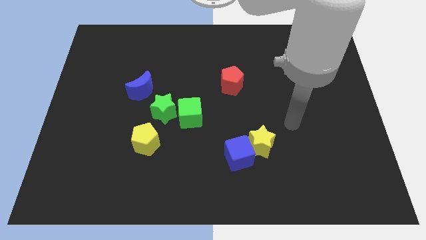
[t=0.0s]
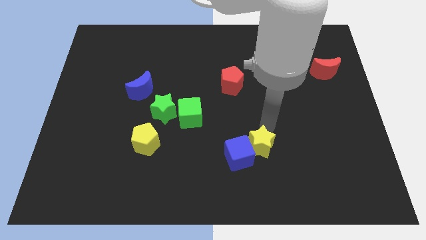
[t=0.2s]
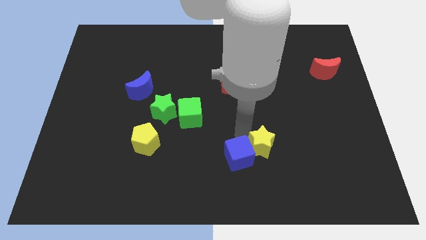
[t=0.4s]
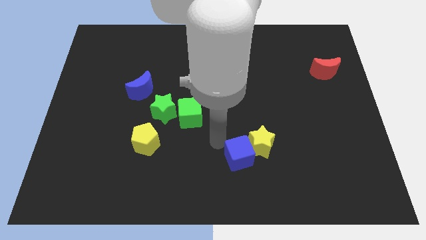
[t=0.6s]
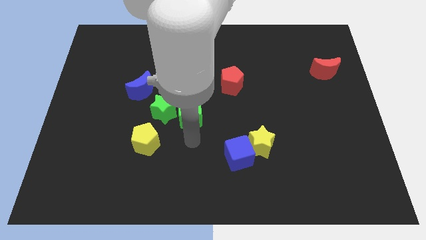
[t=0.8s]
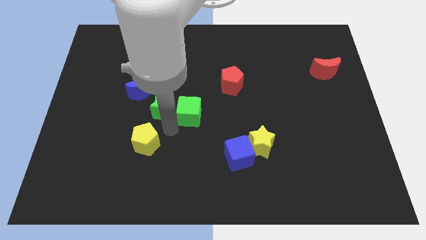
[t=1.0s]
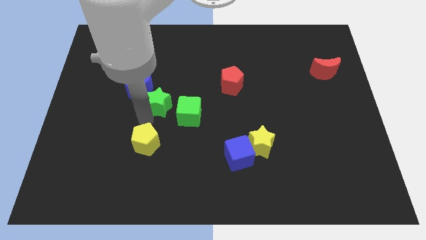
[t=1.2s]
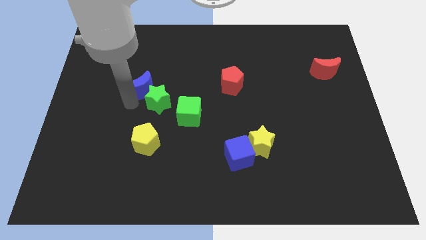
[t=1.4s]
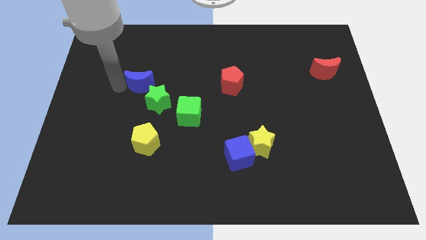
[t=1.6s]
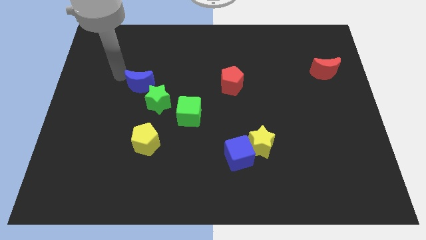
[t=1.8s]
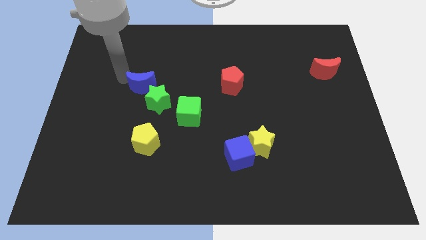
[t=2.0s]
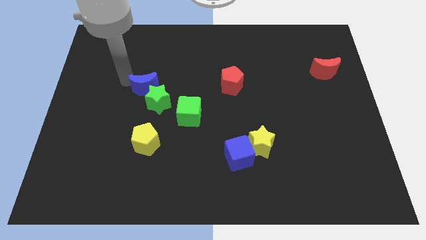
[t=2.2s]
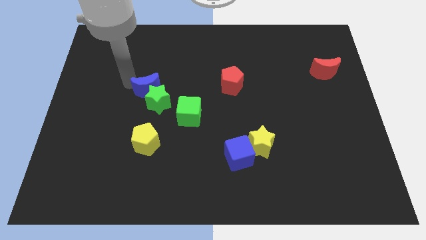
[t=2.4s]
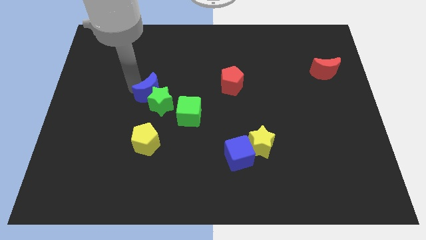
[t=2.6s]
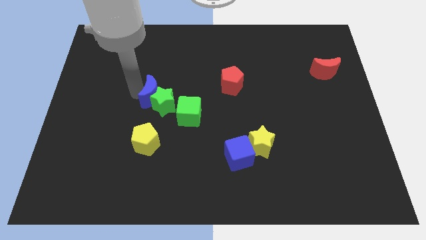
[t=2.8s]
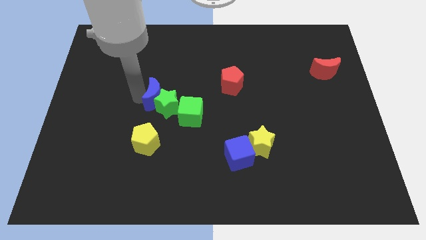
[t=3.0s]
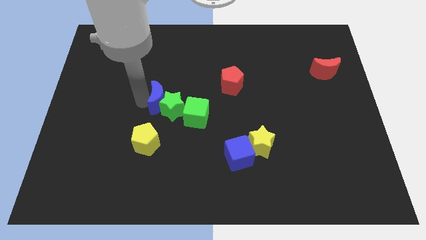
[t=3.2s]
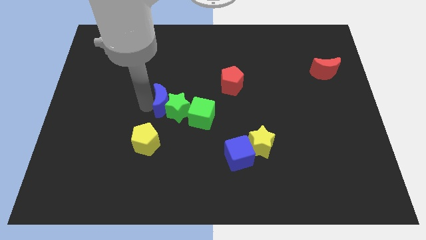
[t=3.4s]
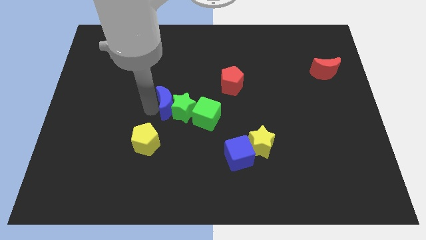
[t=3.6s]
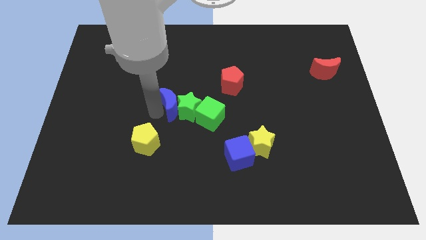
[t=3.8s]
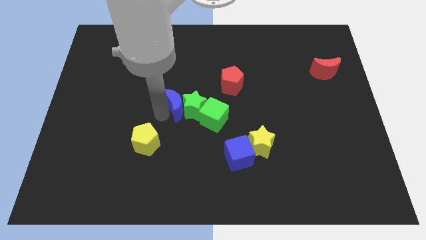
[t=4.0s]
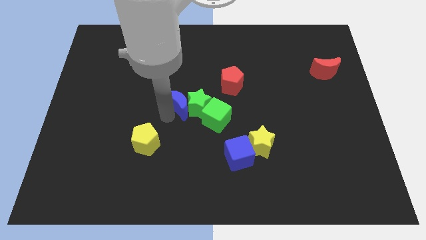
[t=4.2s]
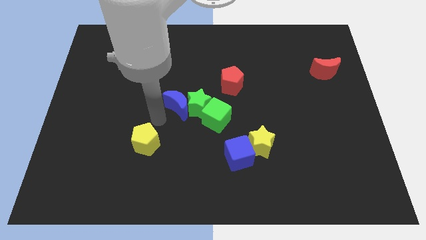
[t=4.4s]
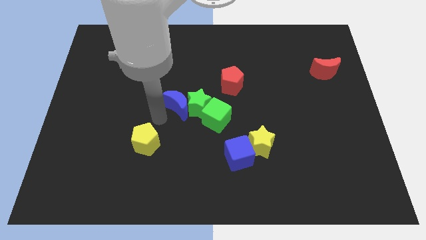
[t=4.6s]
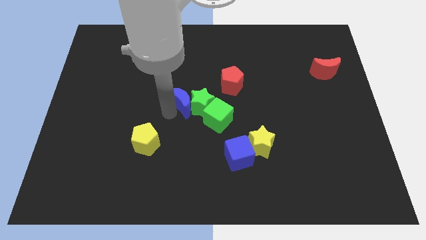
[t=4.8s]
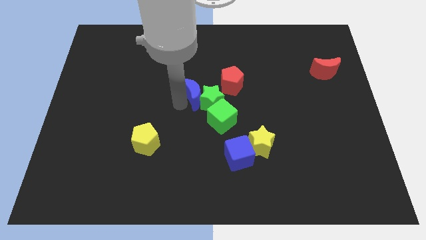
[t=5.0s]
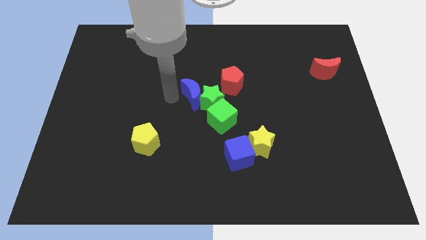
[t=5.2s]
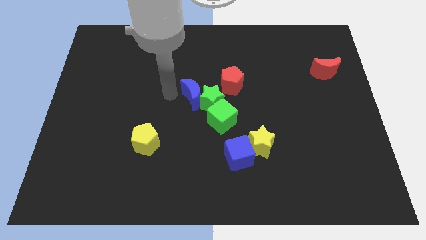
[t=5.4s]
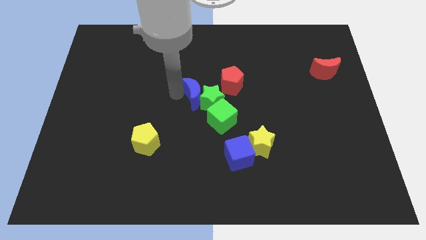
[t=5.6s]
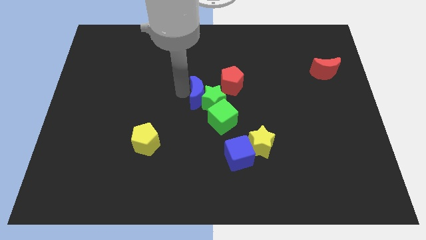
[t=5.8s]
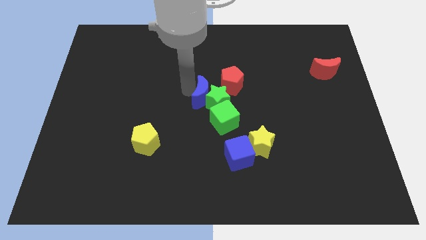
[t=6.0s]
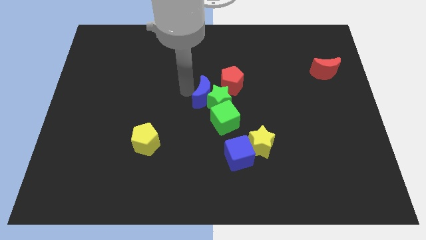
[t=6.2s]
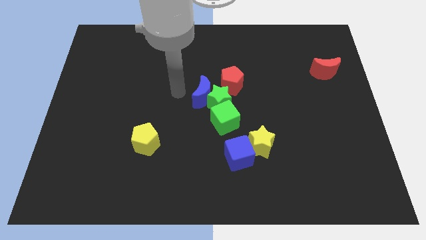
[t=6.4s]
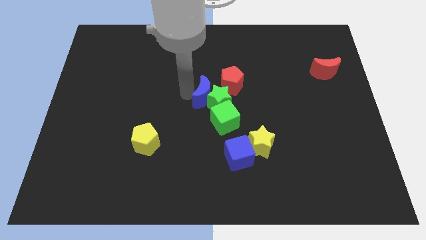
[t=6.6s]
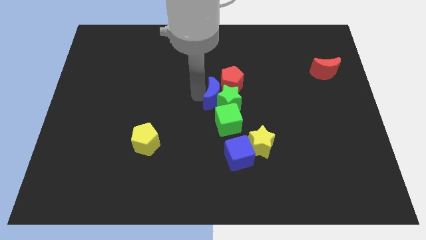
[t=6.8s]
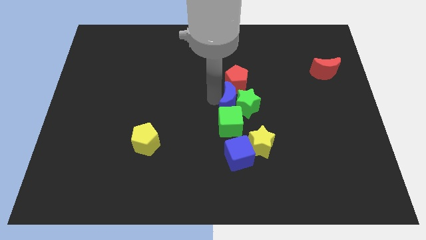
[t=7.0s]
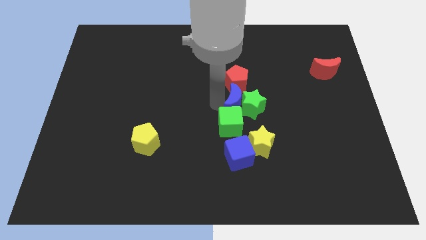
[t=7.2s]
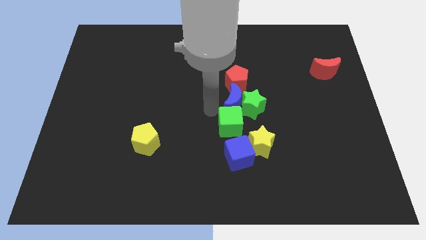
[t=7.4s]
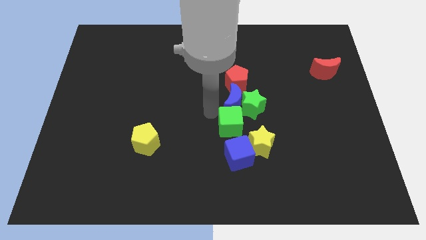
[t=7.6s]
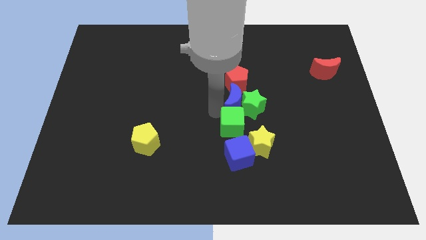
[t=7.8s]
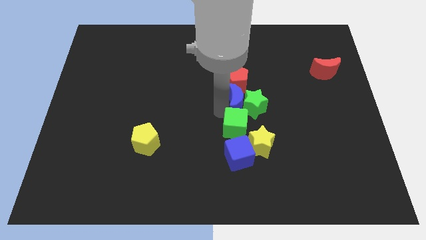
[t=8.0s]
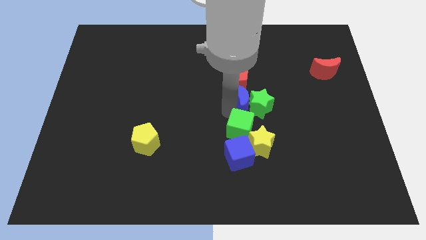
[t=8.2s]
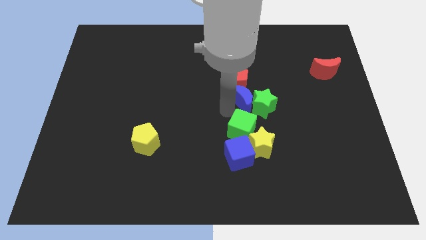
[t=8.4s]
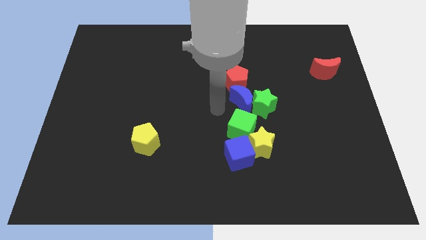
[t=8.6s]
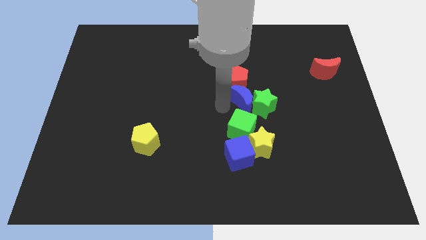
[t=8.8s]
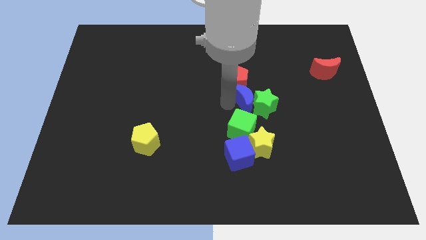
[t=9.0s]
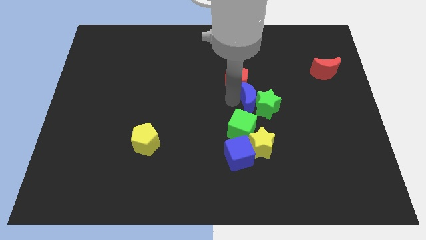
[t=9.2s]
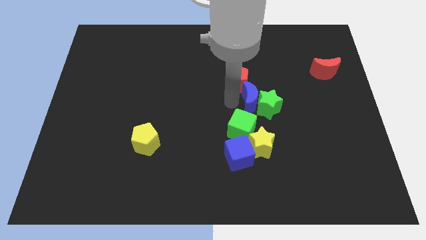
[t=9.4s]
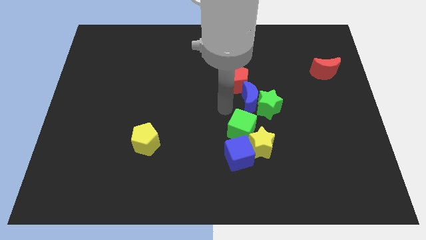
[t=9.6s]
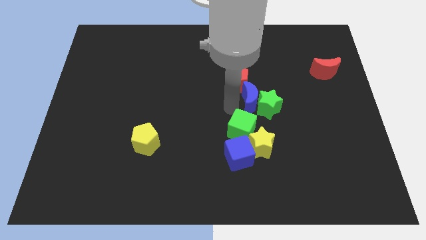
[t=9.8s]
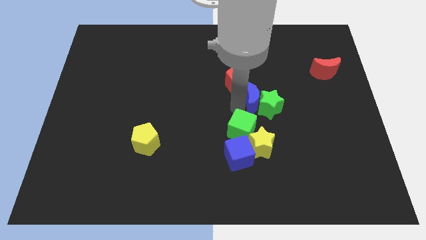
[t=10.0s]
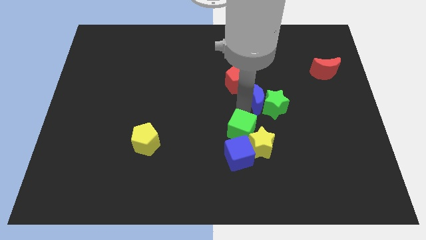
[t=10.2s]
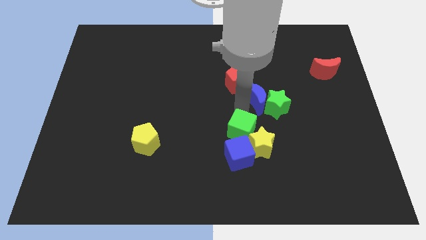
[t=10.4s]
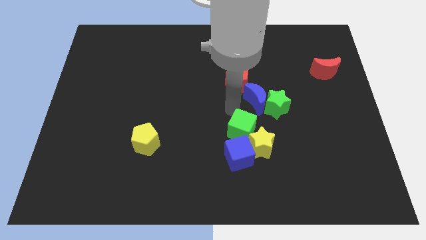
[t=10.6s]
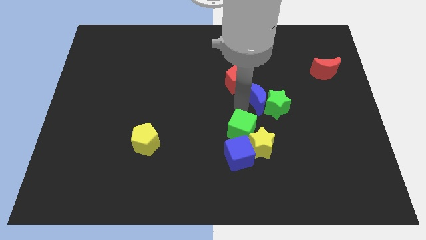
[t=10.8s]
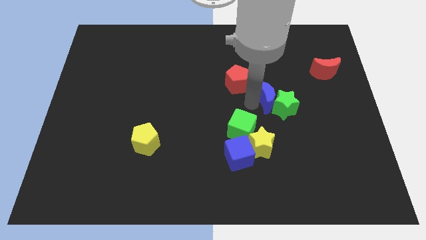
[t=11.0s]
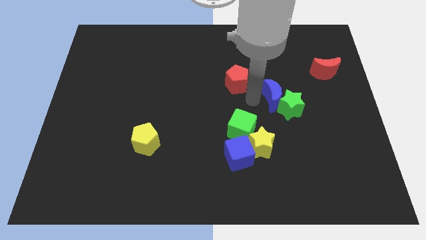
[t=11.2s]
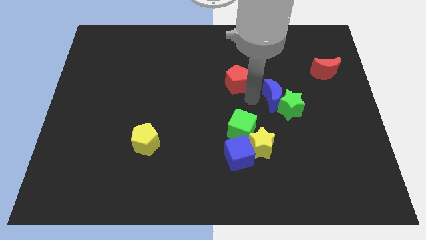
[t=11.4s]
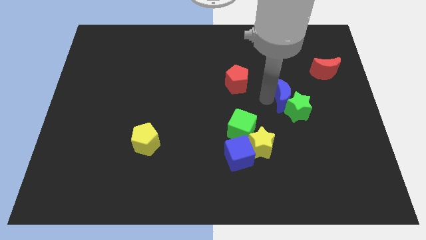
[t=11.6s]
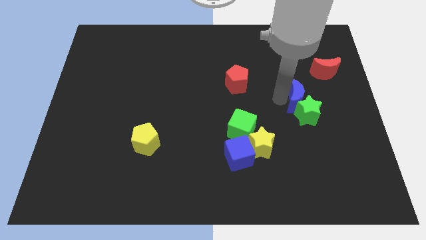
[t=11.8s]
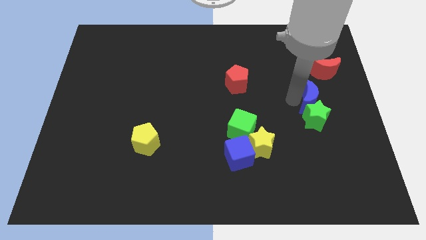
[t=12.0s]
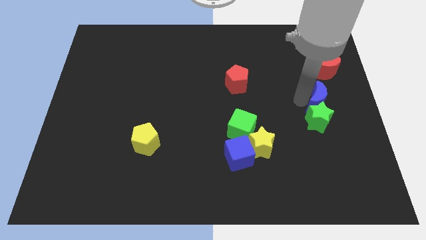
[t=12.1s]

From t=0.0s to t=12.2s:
slide the blue moon below the red moon

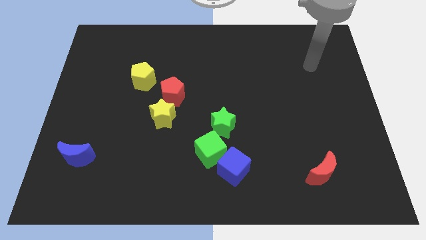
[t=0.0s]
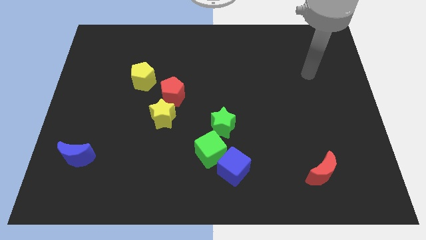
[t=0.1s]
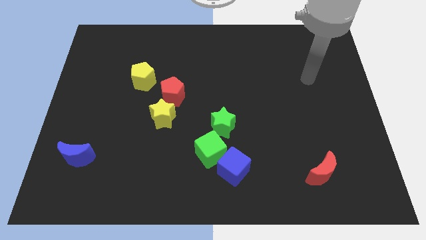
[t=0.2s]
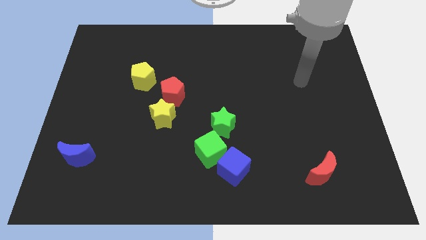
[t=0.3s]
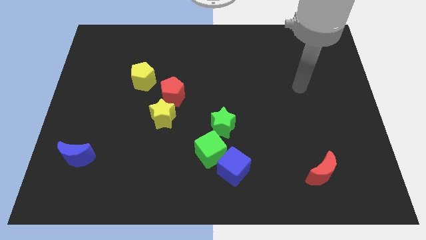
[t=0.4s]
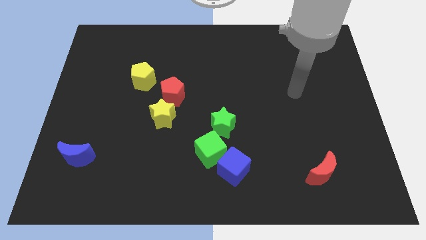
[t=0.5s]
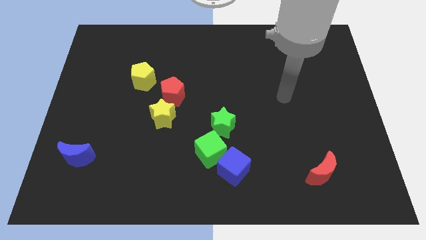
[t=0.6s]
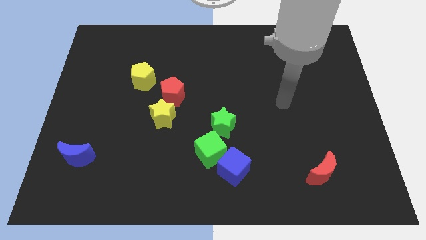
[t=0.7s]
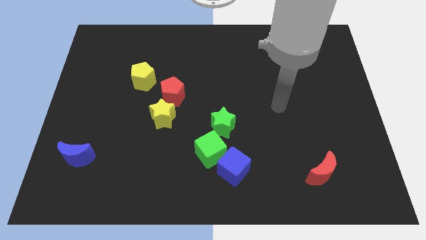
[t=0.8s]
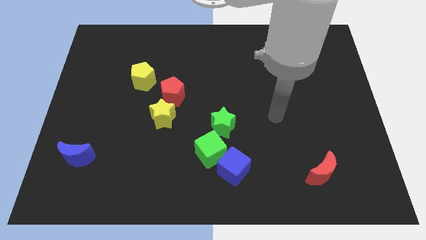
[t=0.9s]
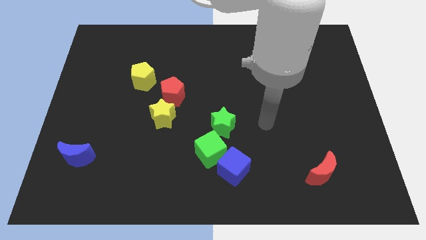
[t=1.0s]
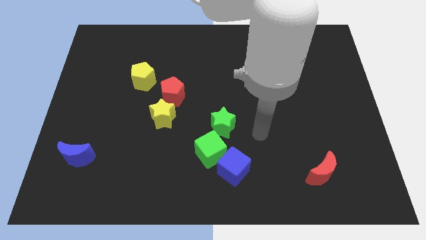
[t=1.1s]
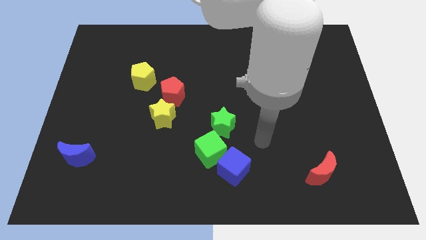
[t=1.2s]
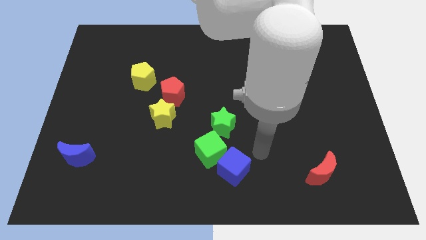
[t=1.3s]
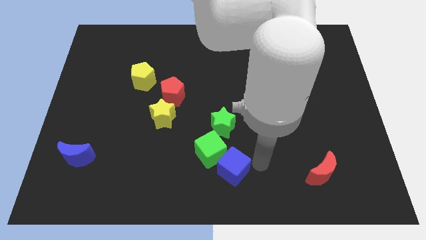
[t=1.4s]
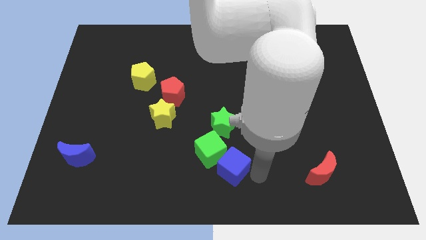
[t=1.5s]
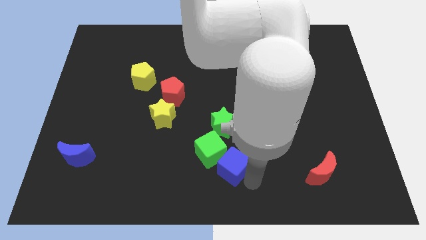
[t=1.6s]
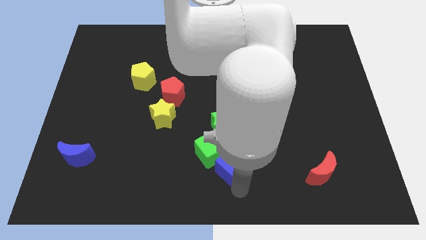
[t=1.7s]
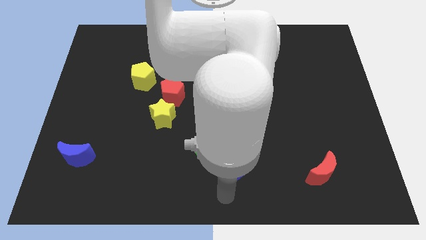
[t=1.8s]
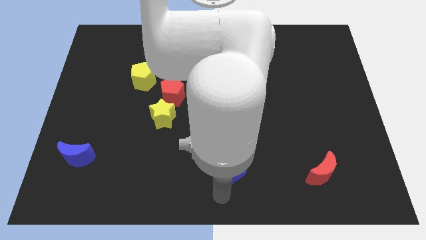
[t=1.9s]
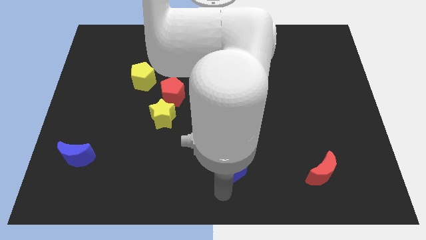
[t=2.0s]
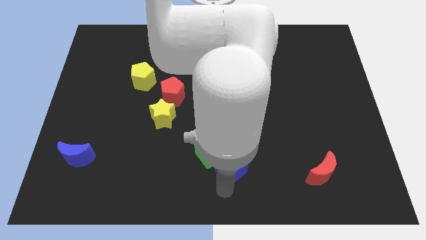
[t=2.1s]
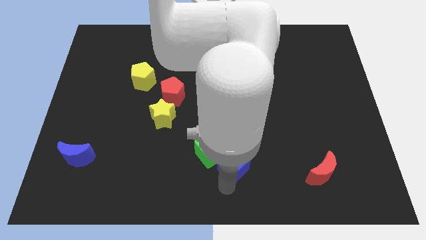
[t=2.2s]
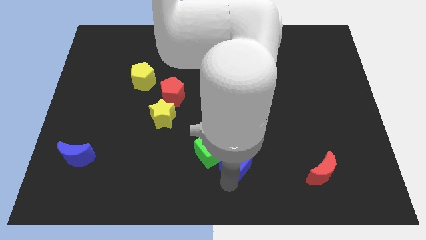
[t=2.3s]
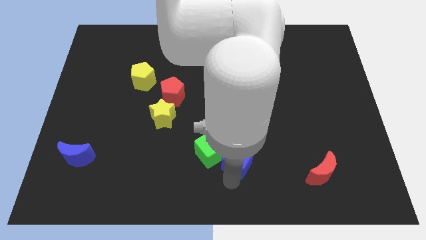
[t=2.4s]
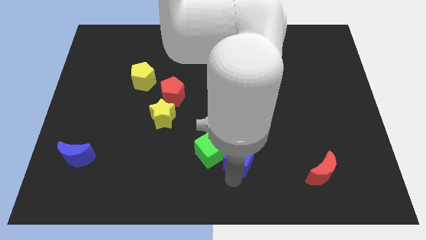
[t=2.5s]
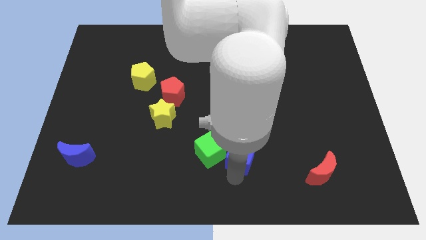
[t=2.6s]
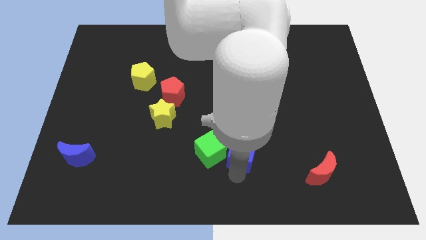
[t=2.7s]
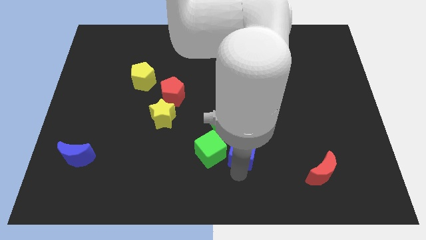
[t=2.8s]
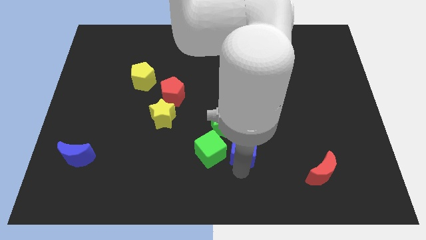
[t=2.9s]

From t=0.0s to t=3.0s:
slide the blue cube to the top right side of the green cube
